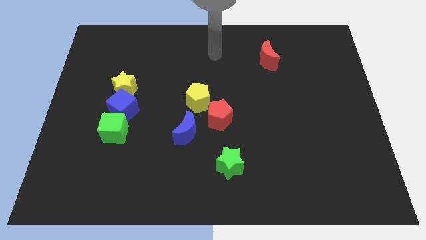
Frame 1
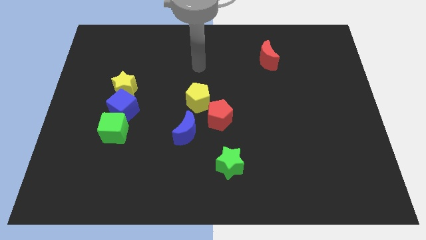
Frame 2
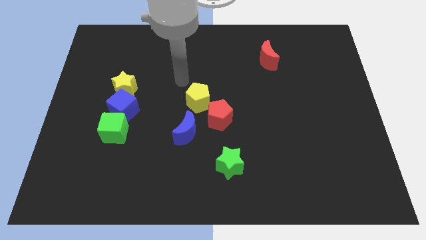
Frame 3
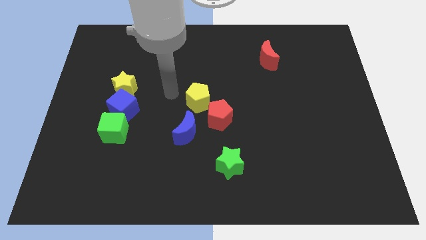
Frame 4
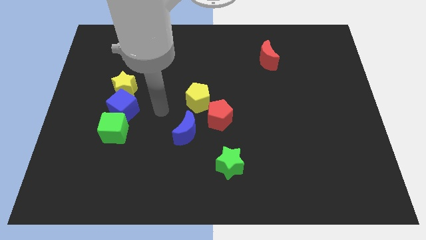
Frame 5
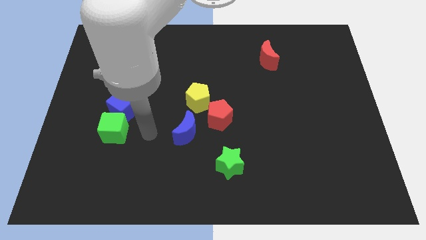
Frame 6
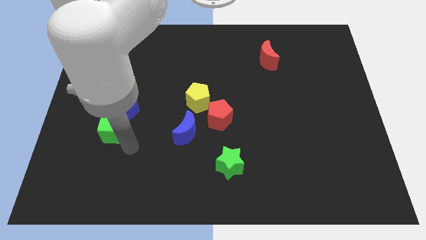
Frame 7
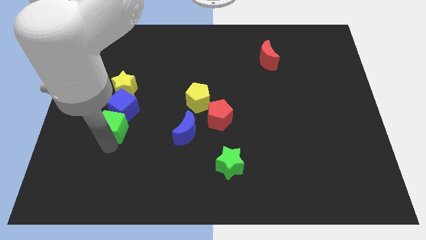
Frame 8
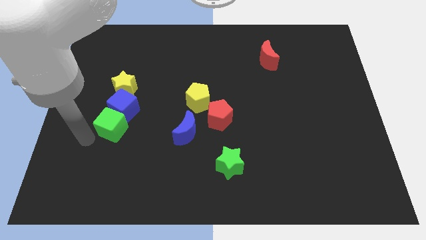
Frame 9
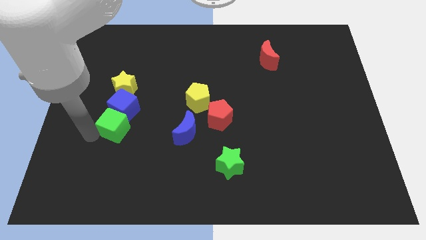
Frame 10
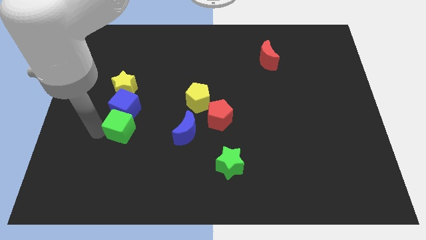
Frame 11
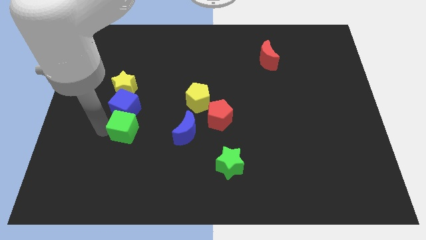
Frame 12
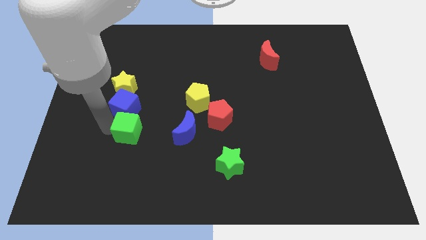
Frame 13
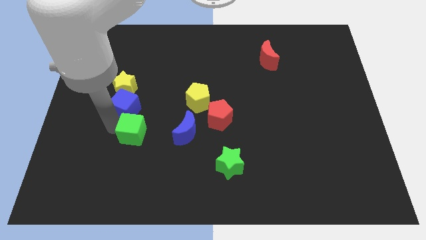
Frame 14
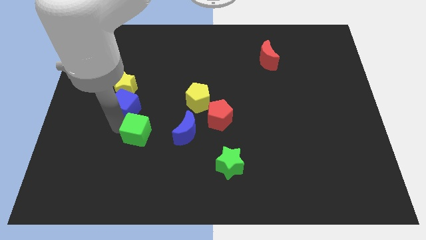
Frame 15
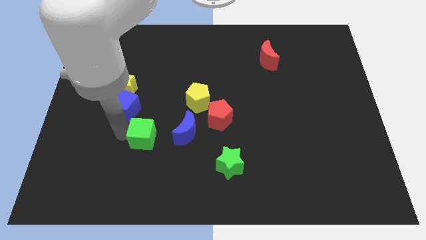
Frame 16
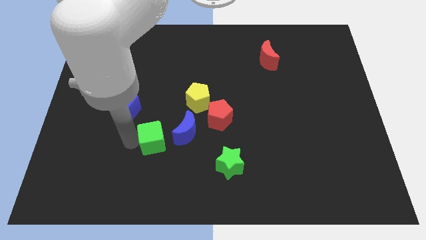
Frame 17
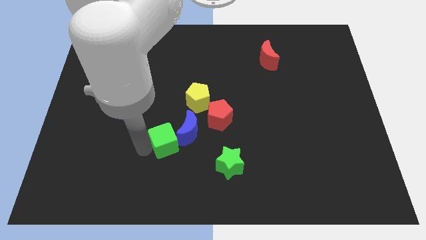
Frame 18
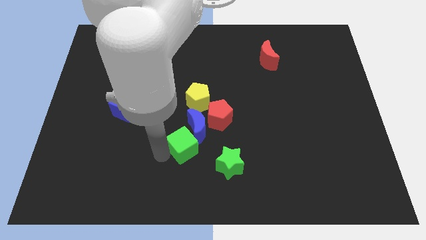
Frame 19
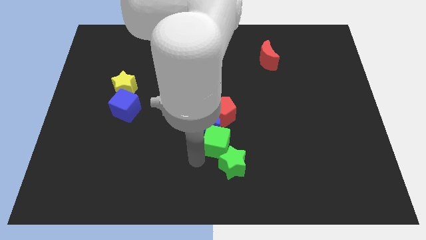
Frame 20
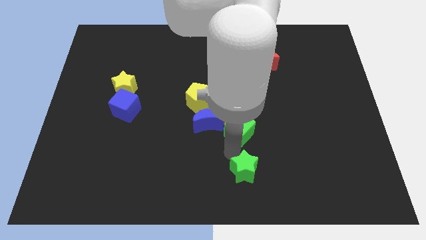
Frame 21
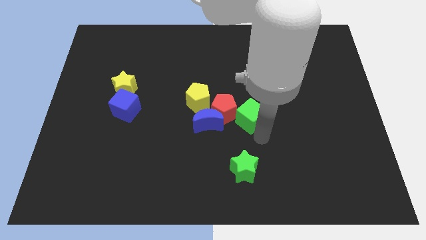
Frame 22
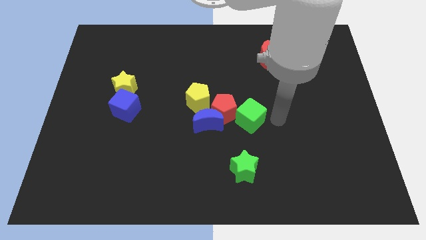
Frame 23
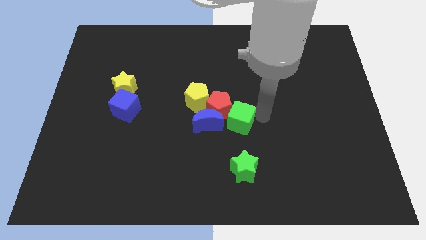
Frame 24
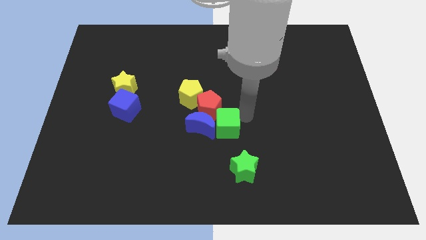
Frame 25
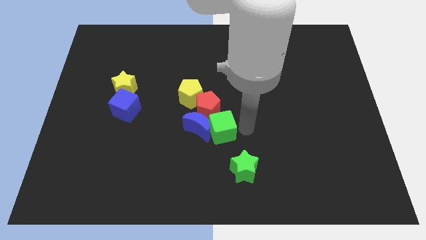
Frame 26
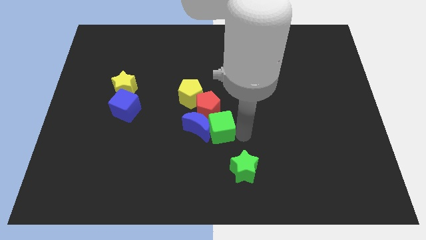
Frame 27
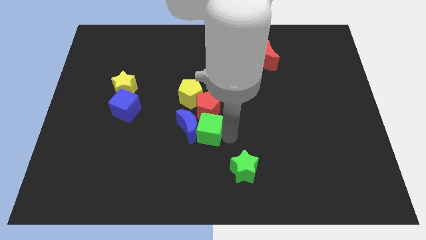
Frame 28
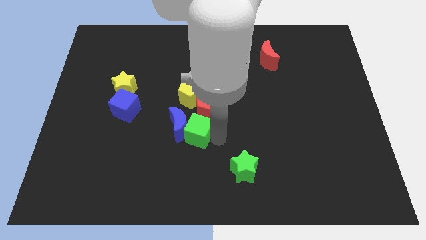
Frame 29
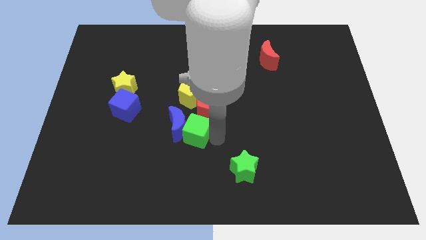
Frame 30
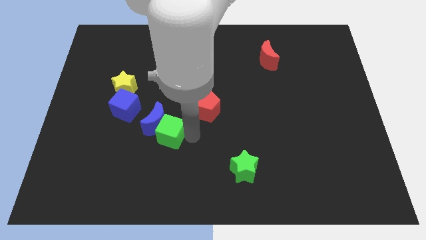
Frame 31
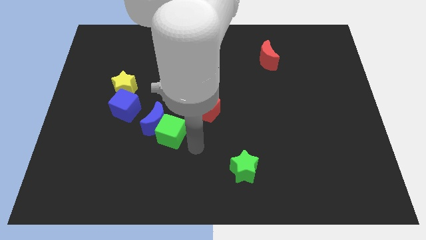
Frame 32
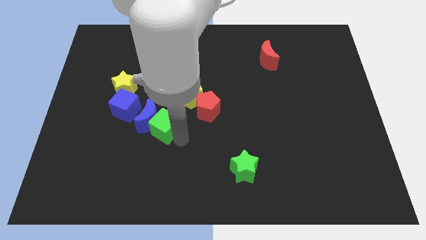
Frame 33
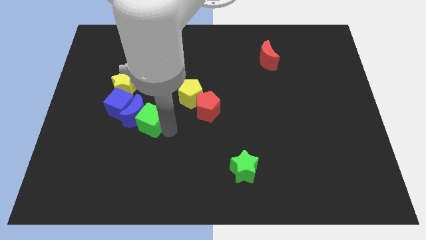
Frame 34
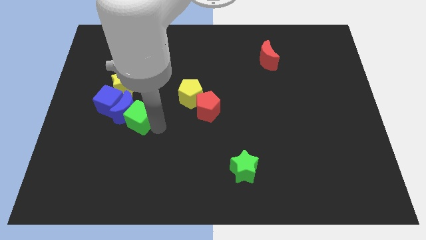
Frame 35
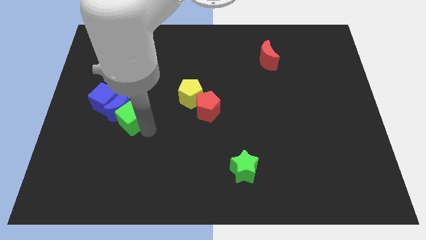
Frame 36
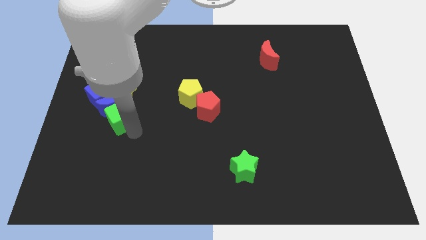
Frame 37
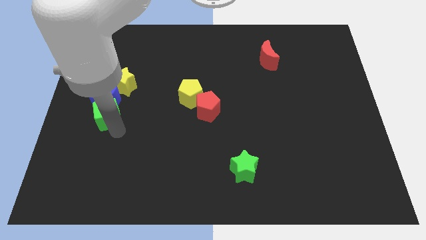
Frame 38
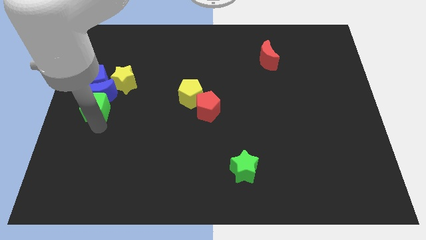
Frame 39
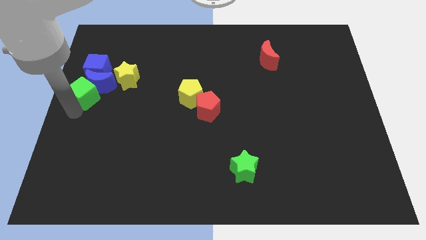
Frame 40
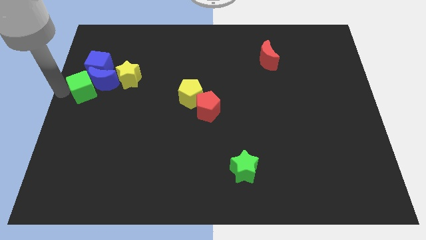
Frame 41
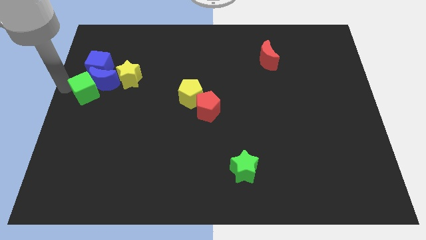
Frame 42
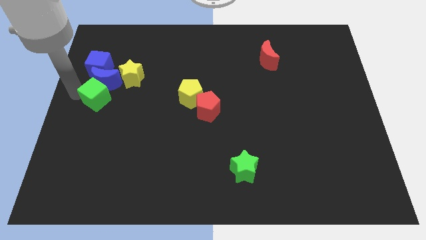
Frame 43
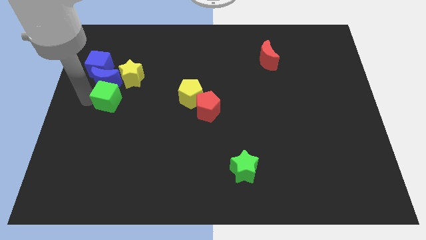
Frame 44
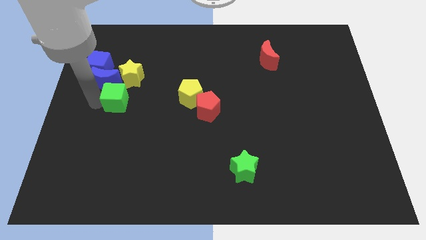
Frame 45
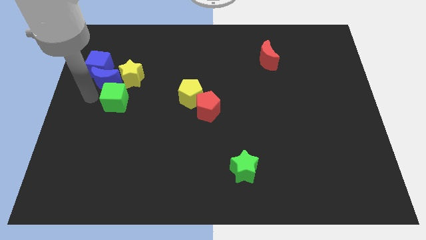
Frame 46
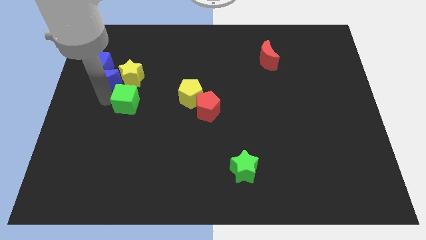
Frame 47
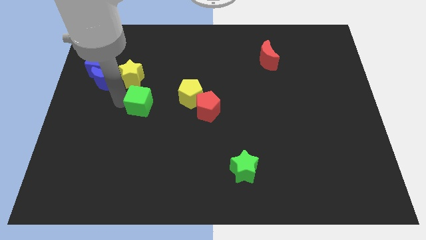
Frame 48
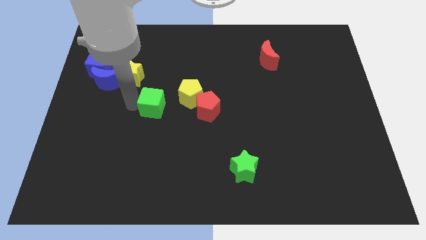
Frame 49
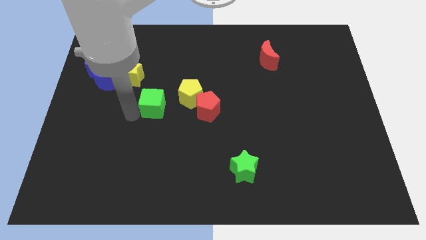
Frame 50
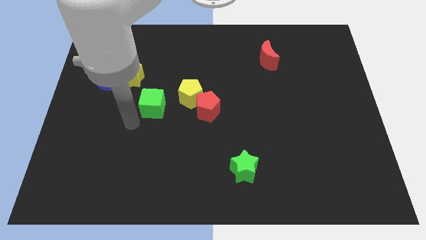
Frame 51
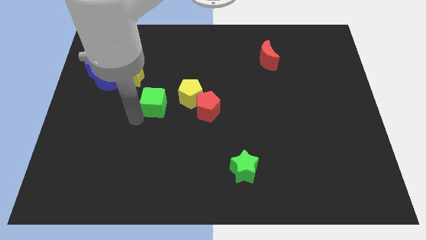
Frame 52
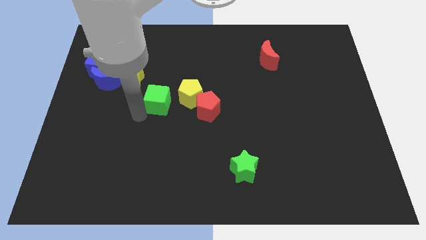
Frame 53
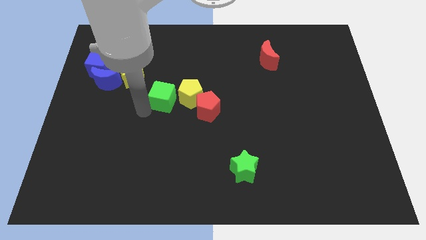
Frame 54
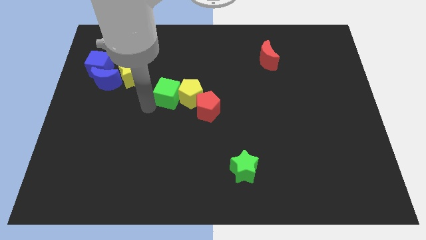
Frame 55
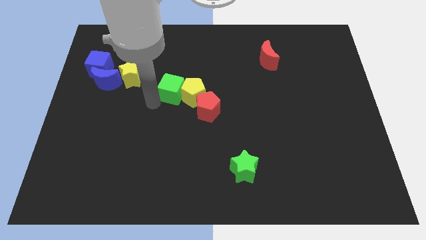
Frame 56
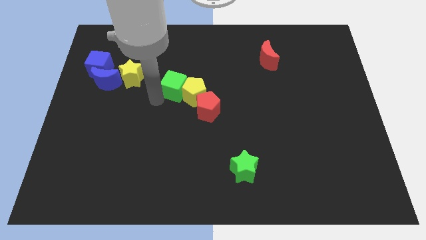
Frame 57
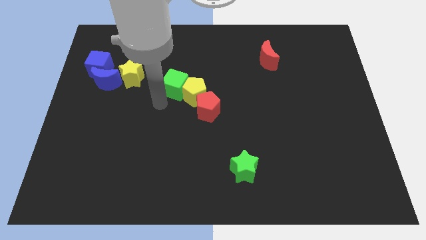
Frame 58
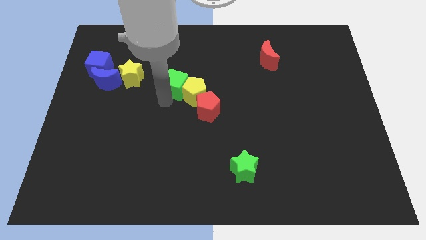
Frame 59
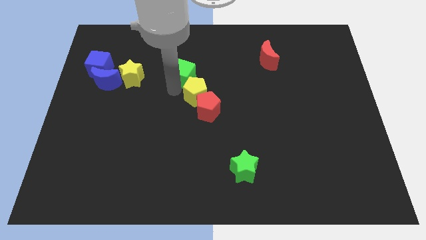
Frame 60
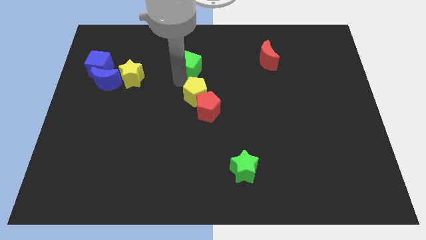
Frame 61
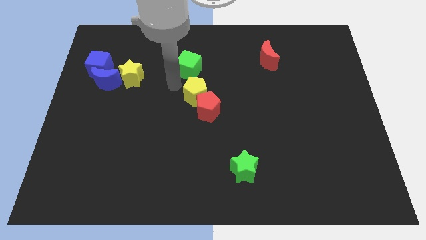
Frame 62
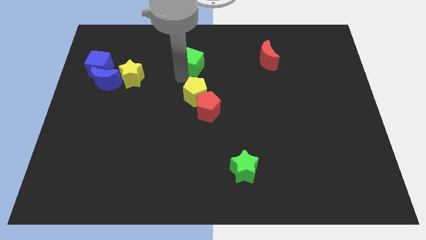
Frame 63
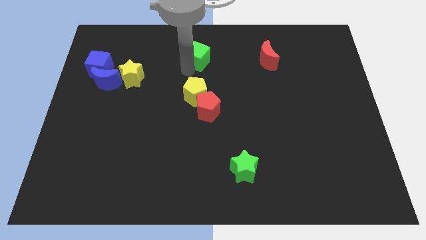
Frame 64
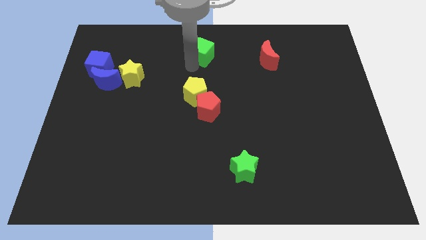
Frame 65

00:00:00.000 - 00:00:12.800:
push the green cube to the towards your base
